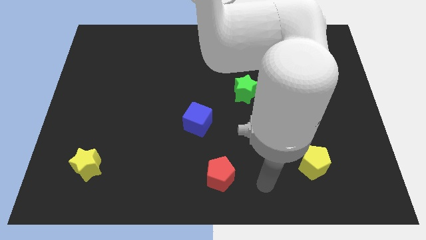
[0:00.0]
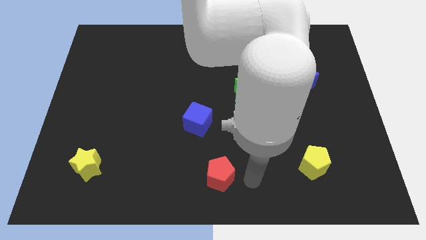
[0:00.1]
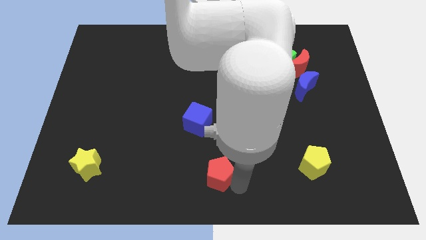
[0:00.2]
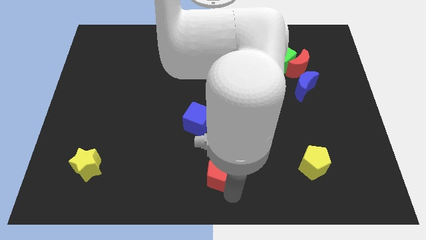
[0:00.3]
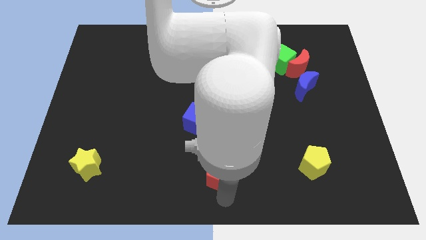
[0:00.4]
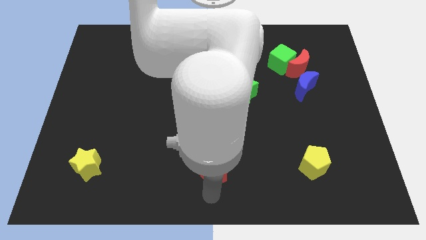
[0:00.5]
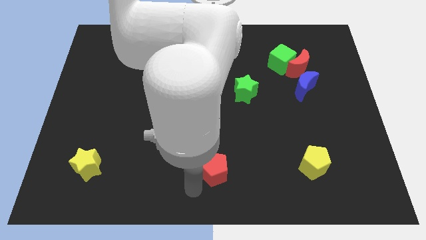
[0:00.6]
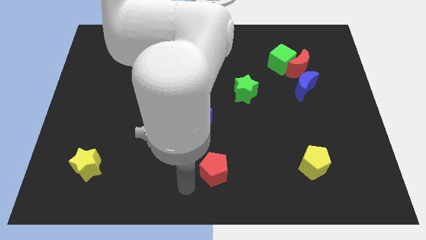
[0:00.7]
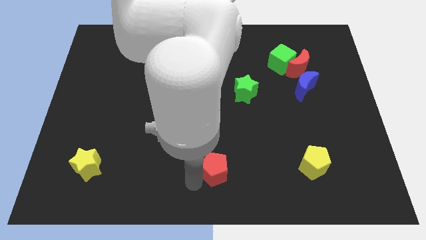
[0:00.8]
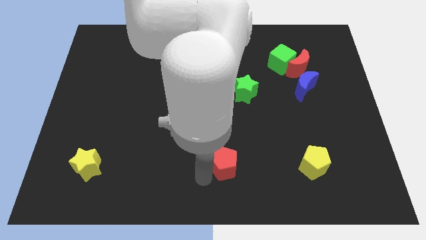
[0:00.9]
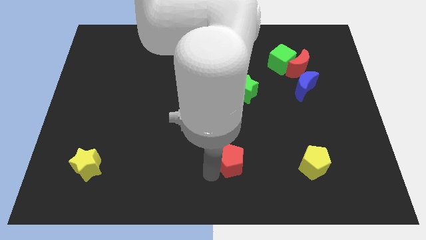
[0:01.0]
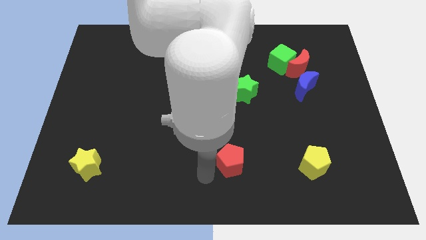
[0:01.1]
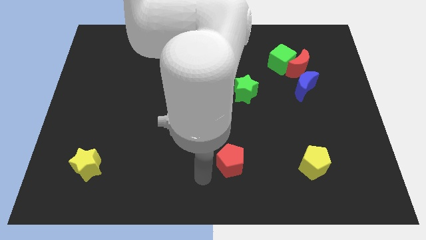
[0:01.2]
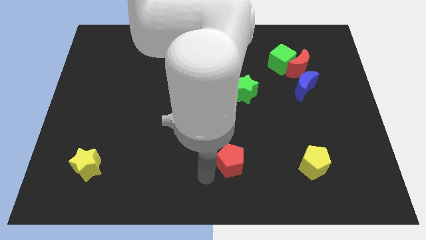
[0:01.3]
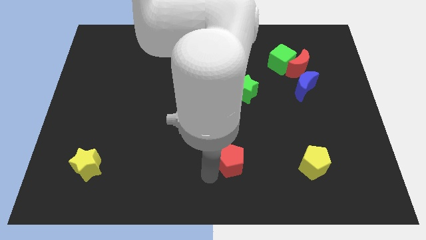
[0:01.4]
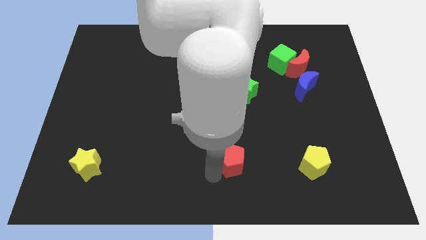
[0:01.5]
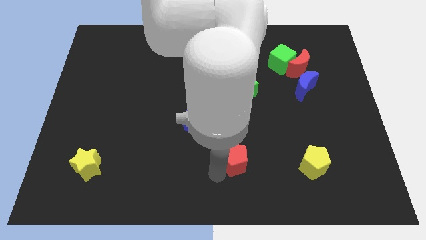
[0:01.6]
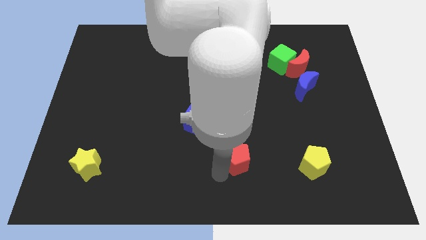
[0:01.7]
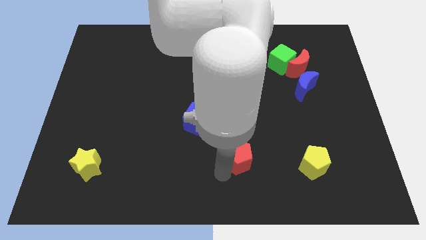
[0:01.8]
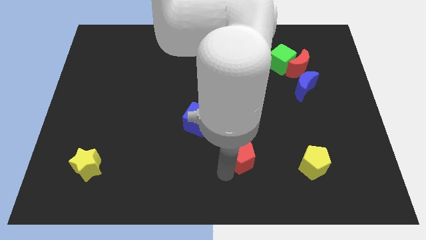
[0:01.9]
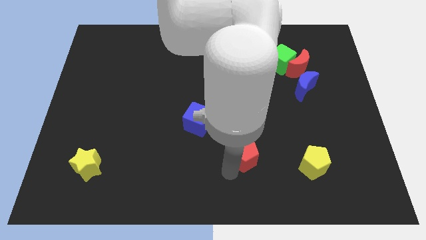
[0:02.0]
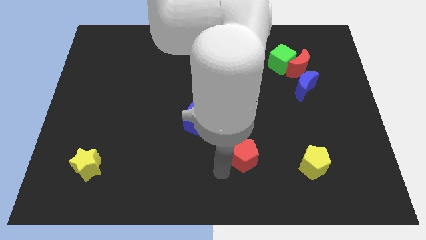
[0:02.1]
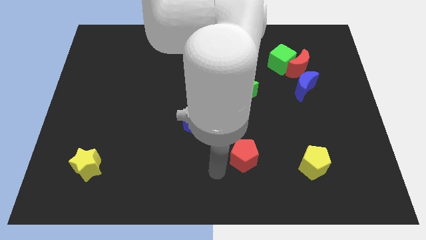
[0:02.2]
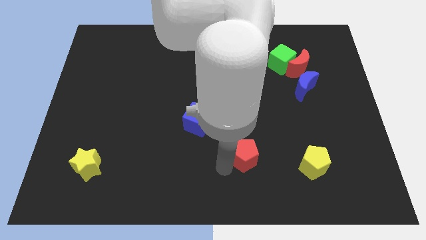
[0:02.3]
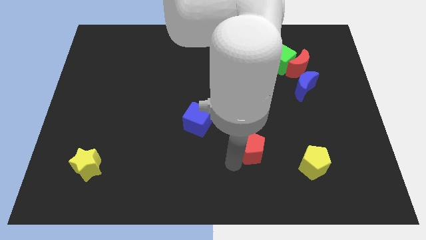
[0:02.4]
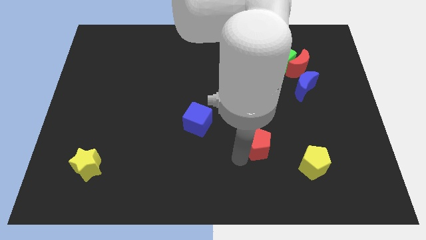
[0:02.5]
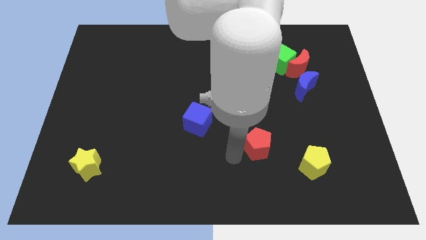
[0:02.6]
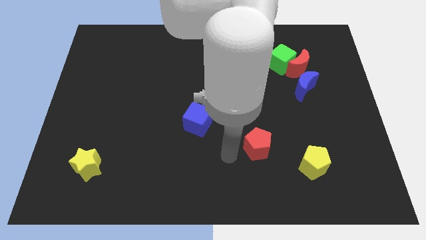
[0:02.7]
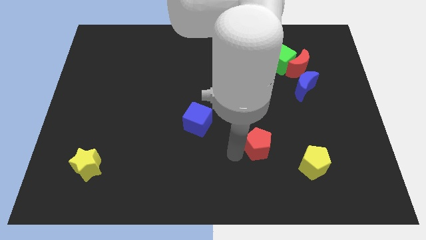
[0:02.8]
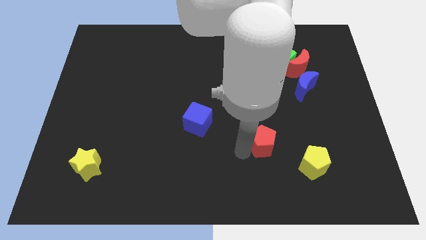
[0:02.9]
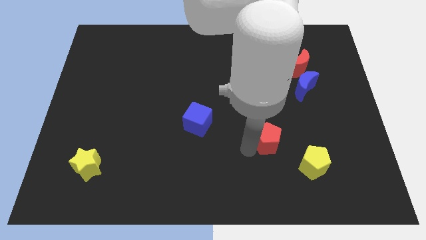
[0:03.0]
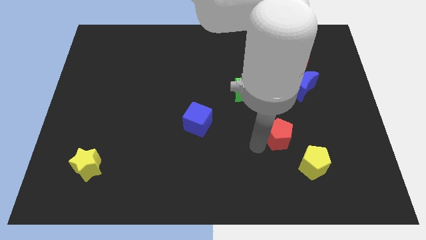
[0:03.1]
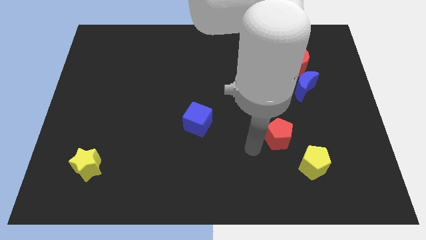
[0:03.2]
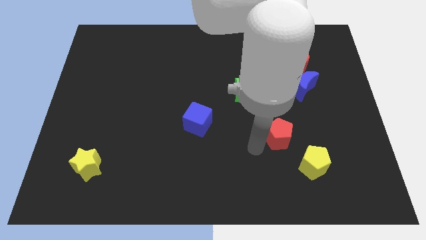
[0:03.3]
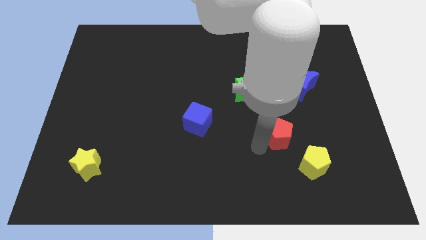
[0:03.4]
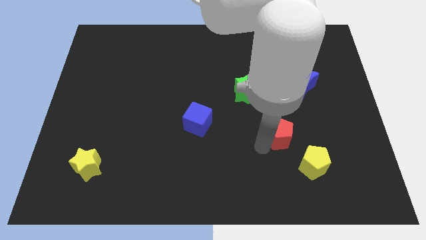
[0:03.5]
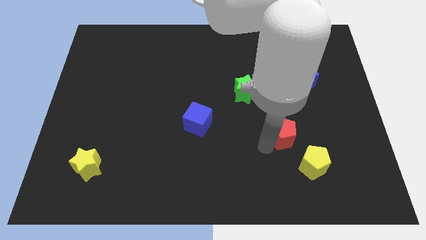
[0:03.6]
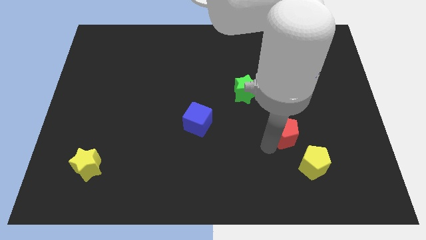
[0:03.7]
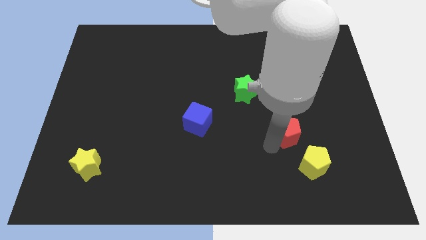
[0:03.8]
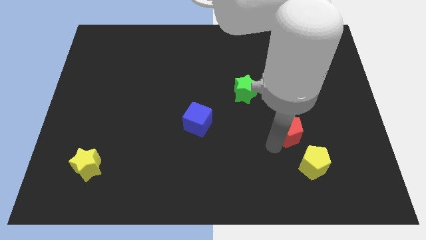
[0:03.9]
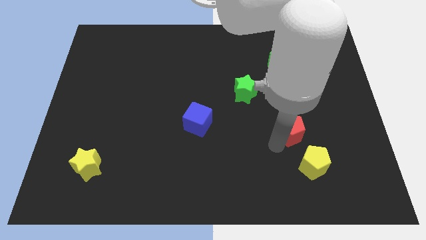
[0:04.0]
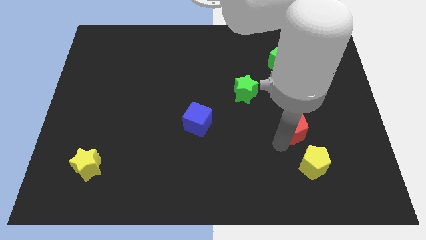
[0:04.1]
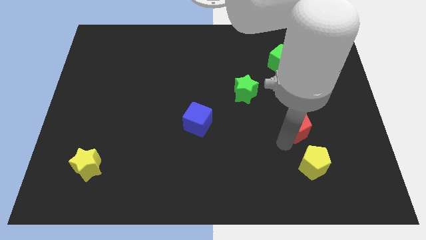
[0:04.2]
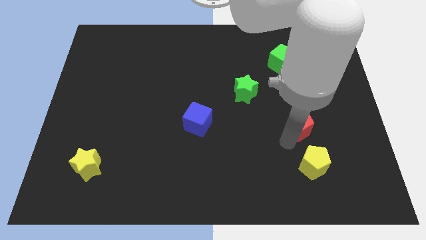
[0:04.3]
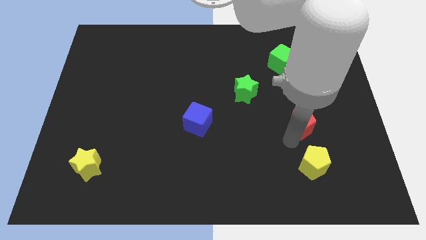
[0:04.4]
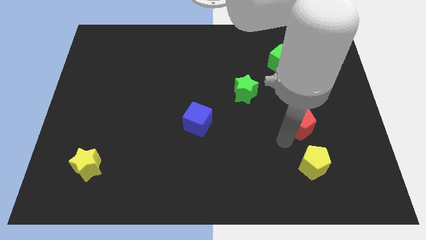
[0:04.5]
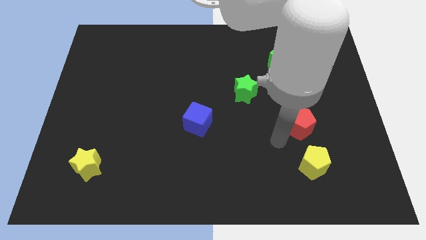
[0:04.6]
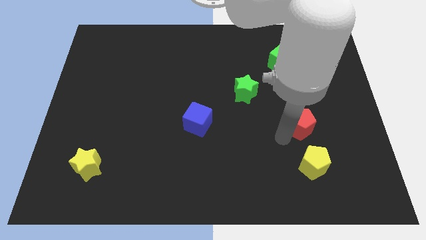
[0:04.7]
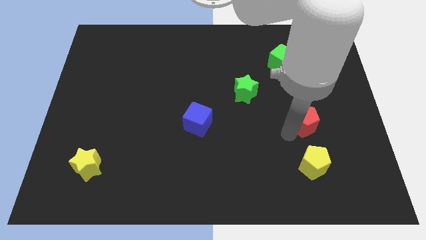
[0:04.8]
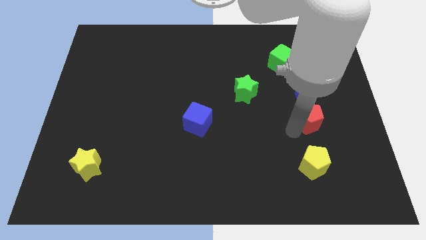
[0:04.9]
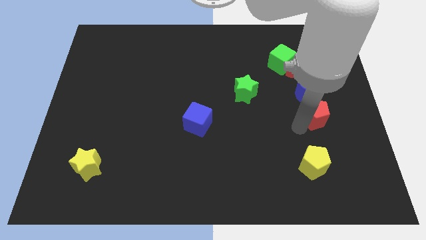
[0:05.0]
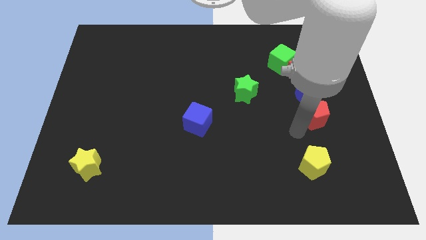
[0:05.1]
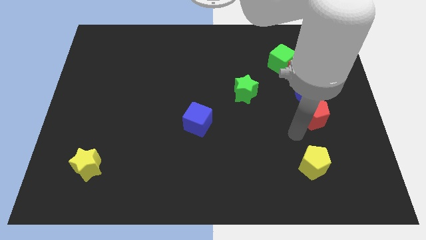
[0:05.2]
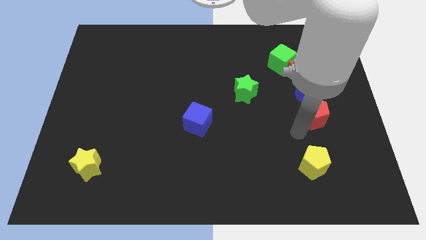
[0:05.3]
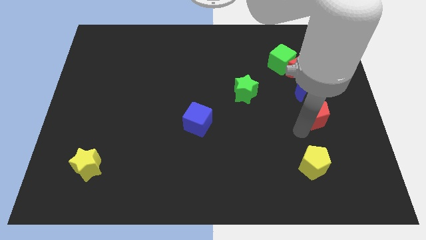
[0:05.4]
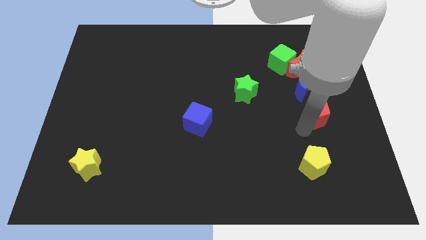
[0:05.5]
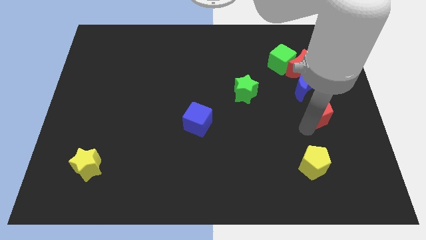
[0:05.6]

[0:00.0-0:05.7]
move the red pentagon to the bottom right side of the blue moon

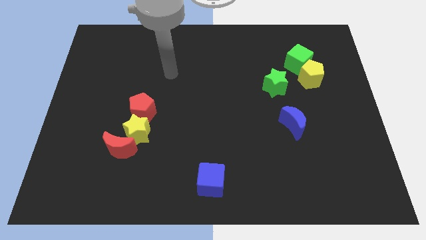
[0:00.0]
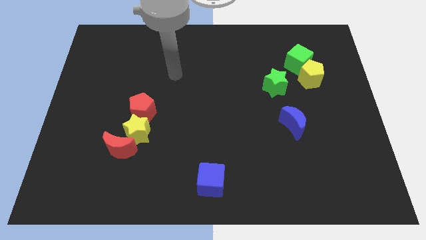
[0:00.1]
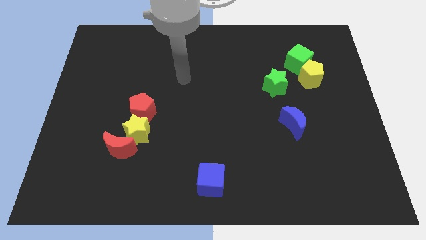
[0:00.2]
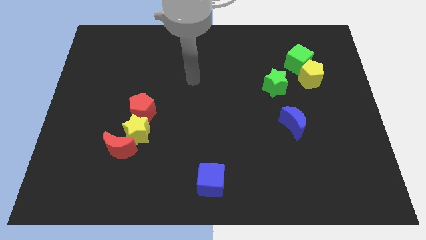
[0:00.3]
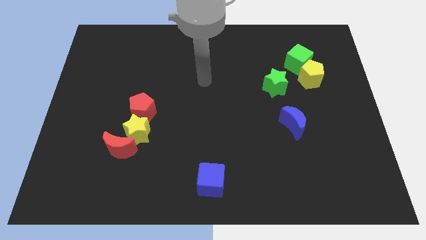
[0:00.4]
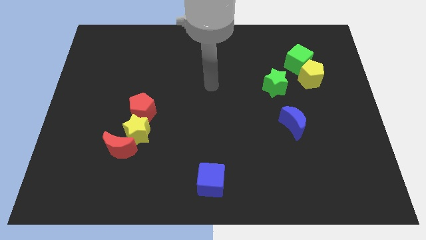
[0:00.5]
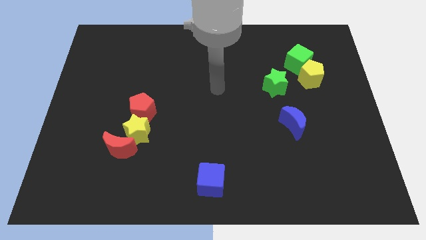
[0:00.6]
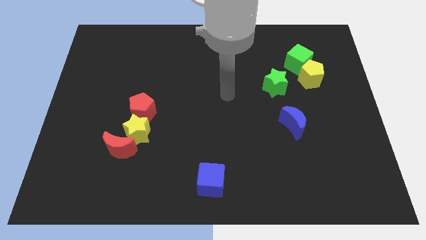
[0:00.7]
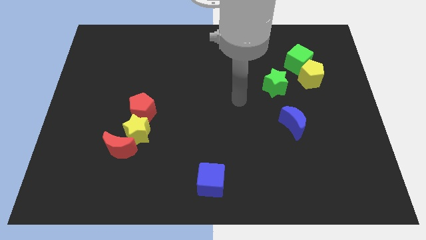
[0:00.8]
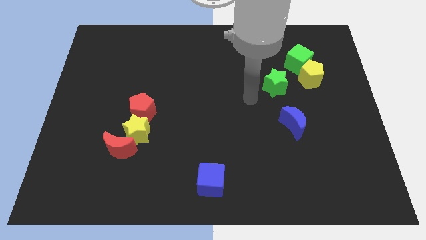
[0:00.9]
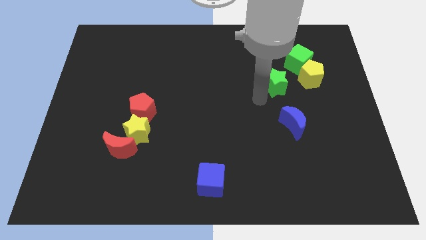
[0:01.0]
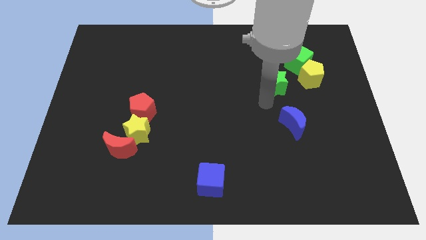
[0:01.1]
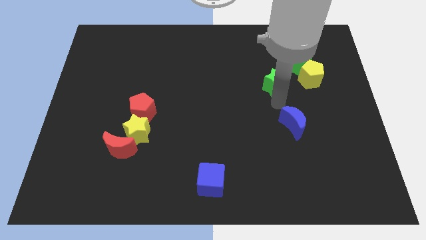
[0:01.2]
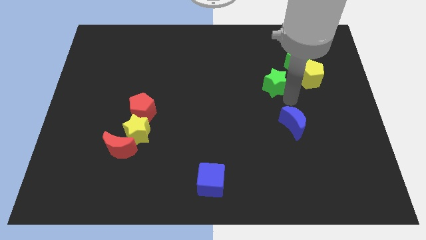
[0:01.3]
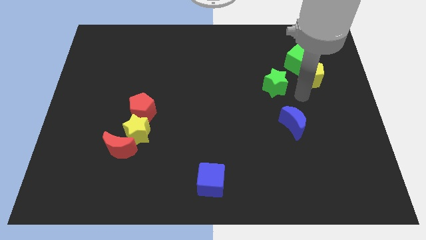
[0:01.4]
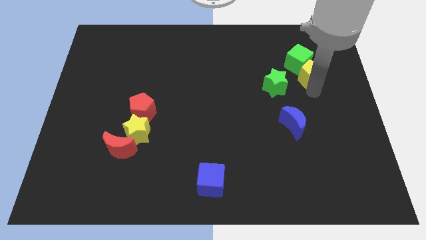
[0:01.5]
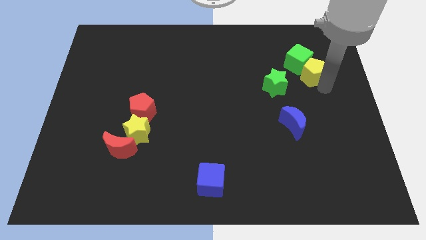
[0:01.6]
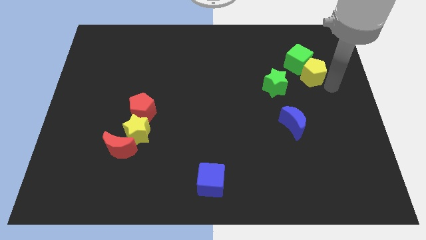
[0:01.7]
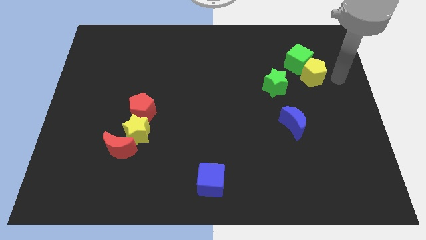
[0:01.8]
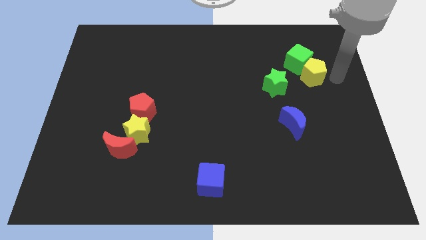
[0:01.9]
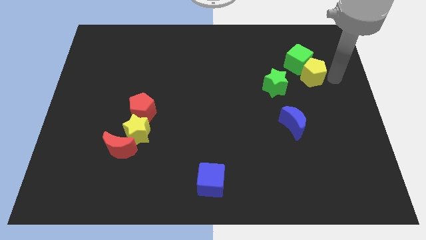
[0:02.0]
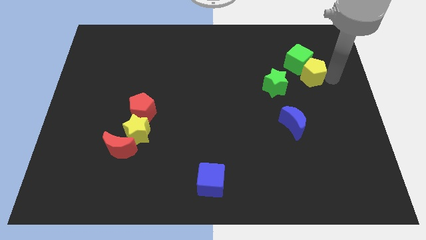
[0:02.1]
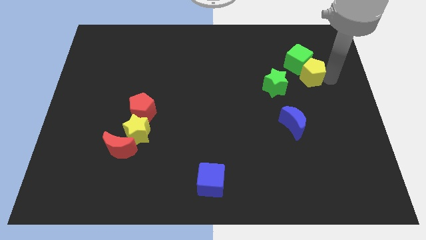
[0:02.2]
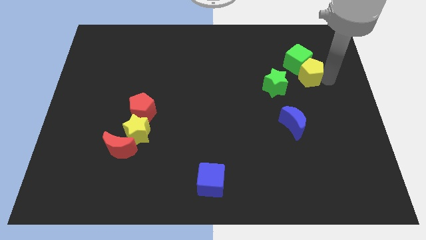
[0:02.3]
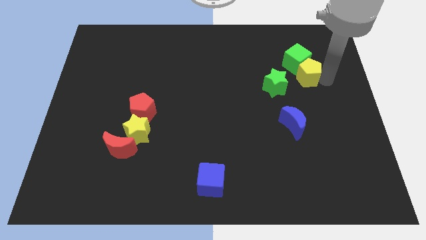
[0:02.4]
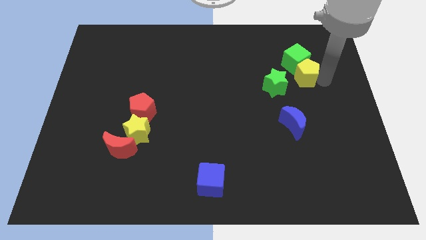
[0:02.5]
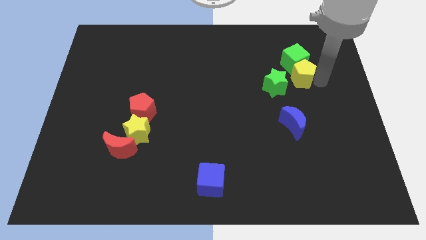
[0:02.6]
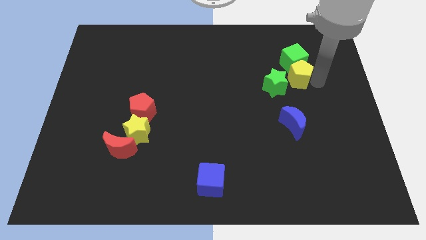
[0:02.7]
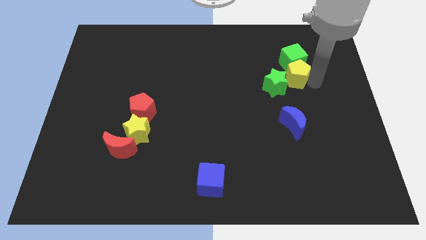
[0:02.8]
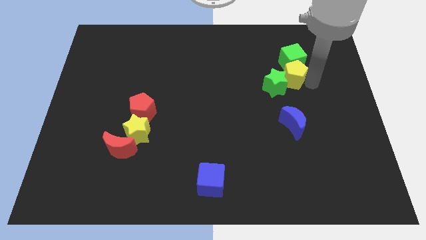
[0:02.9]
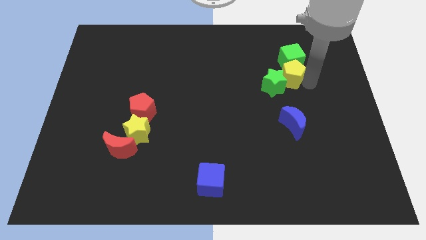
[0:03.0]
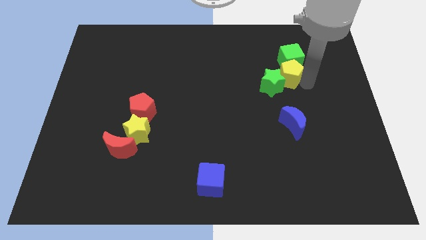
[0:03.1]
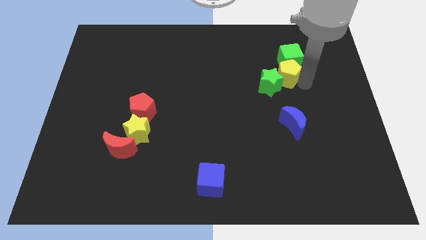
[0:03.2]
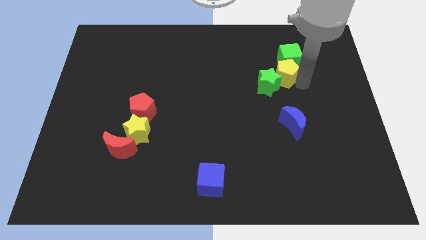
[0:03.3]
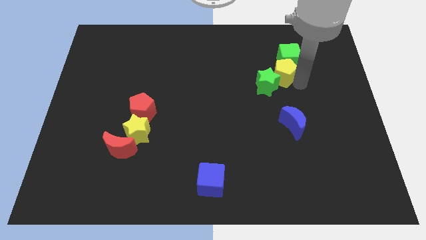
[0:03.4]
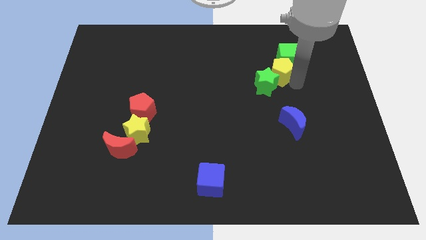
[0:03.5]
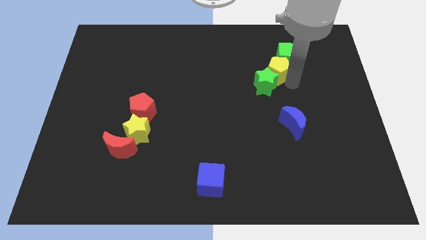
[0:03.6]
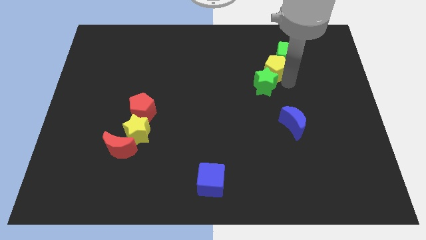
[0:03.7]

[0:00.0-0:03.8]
move the yellow pentagon just left of the green cube
